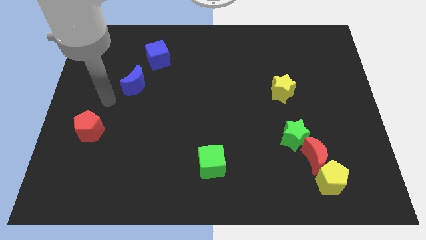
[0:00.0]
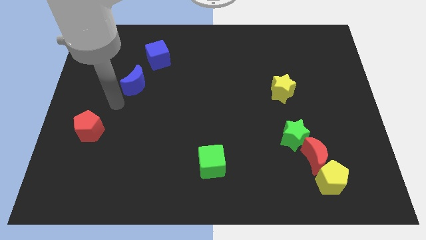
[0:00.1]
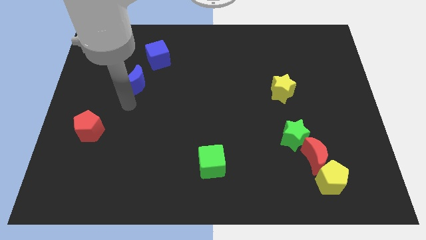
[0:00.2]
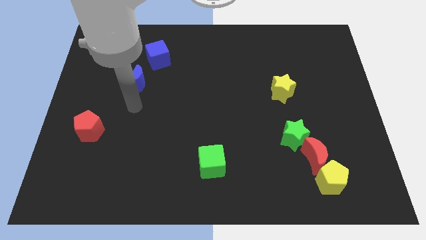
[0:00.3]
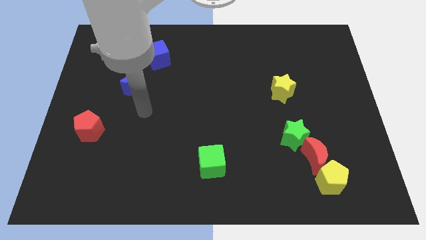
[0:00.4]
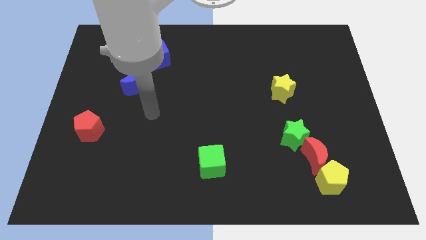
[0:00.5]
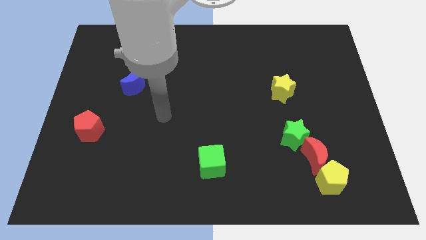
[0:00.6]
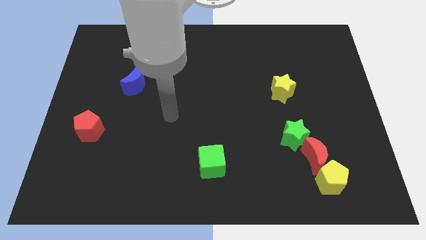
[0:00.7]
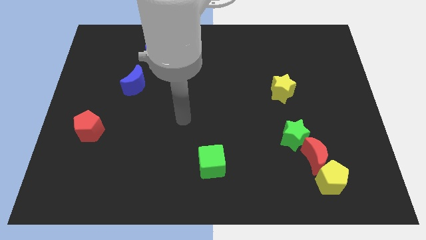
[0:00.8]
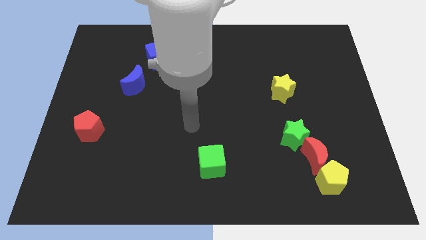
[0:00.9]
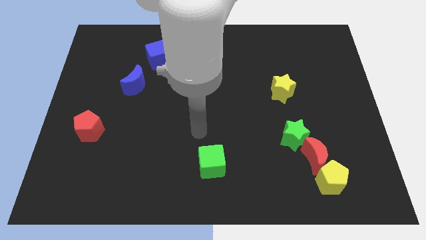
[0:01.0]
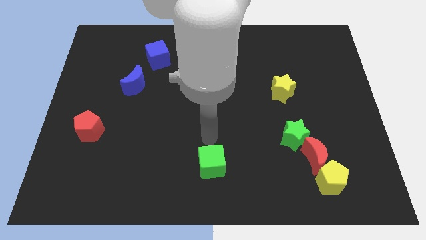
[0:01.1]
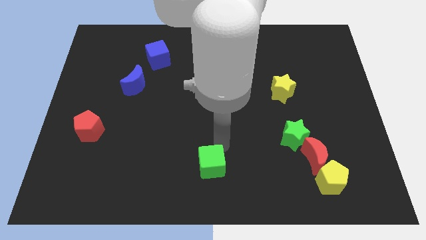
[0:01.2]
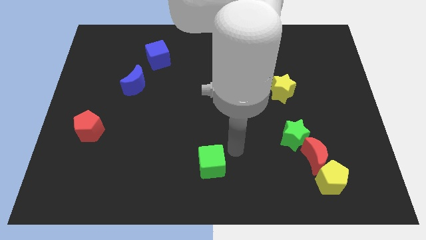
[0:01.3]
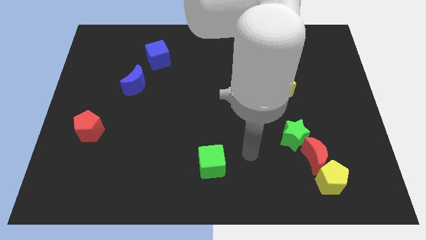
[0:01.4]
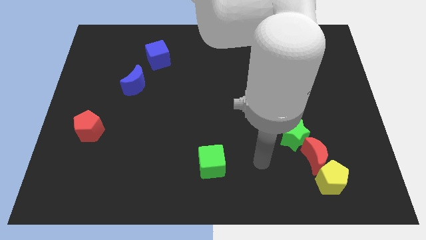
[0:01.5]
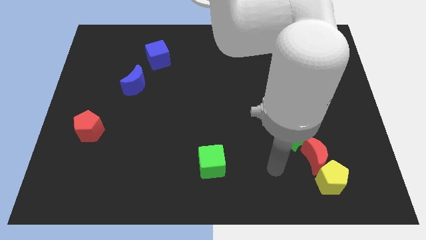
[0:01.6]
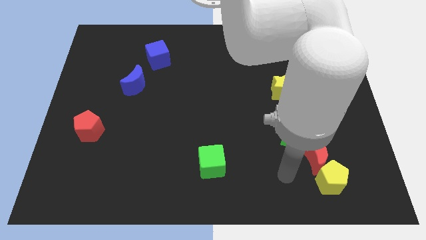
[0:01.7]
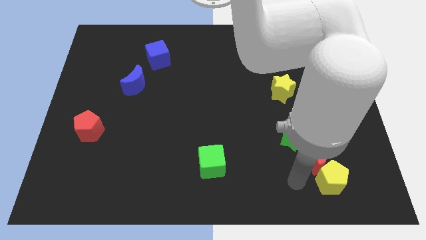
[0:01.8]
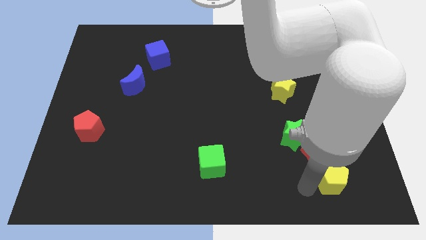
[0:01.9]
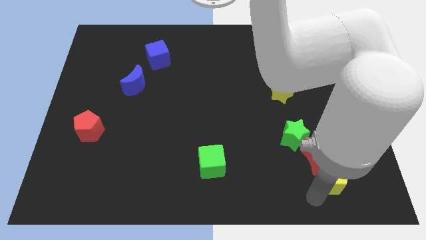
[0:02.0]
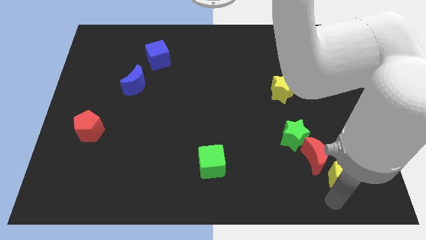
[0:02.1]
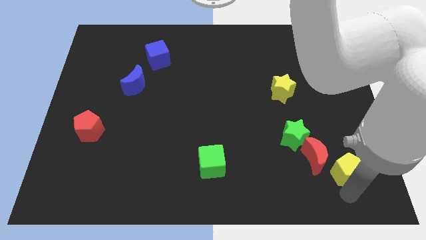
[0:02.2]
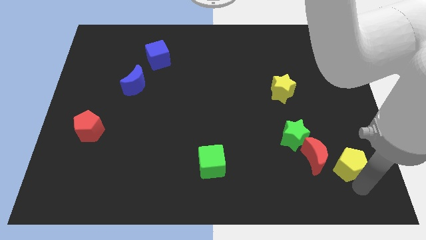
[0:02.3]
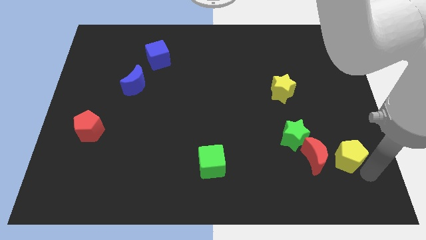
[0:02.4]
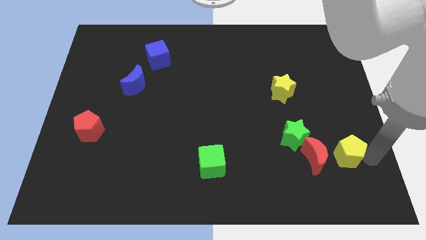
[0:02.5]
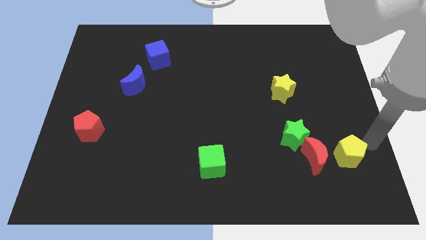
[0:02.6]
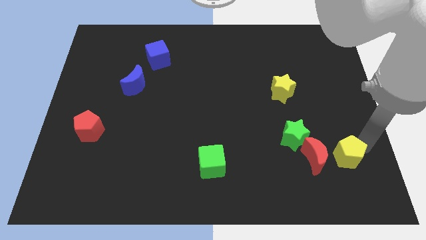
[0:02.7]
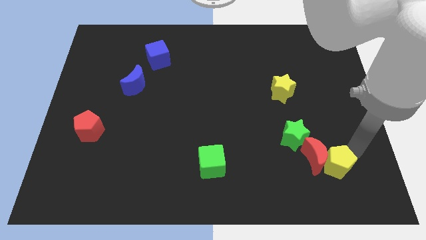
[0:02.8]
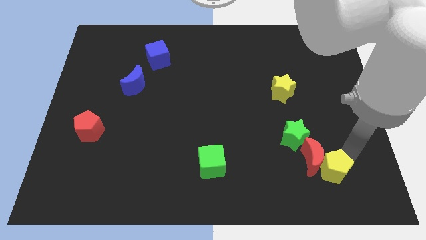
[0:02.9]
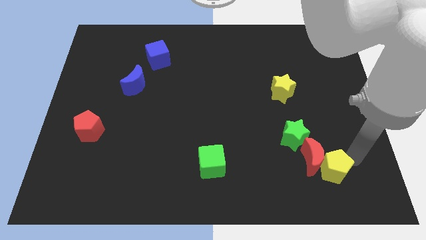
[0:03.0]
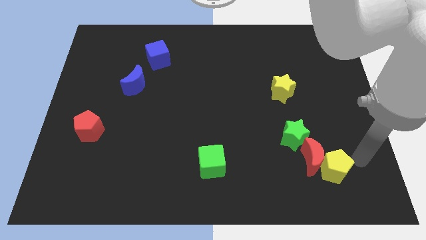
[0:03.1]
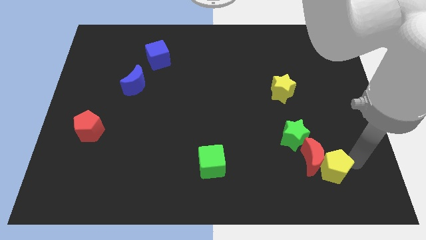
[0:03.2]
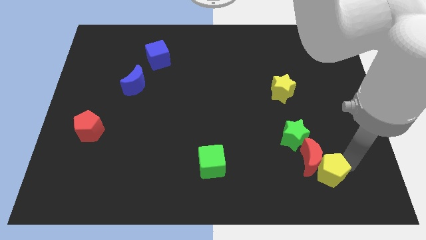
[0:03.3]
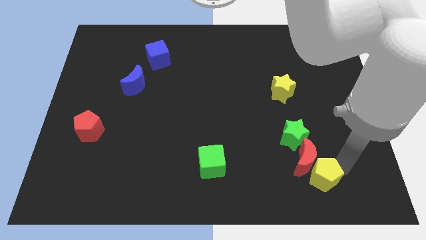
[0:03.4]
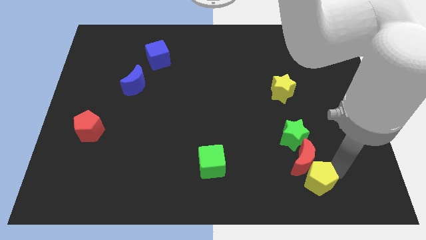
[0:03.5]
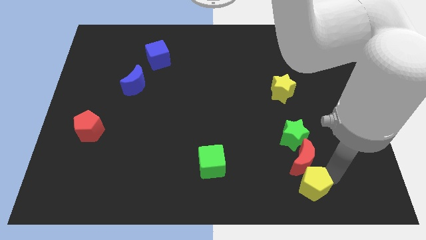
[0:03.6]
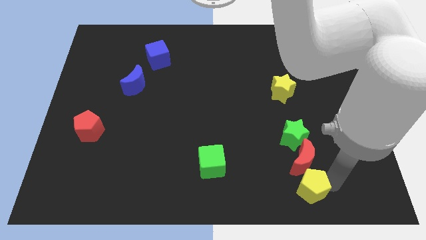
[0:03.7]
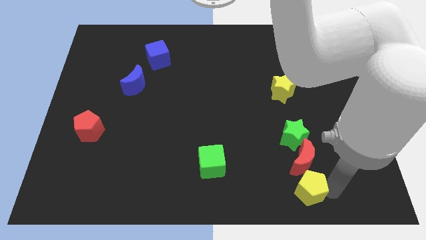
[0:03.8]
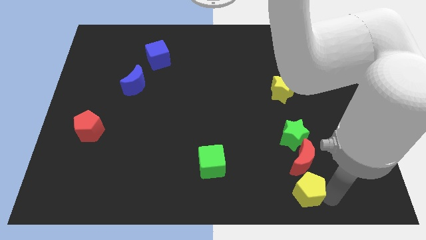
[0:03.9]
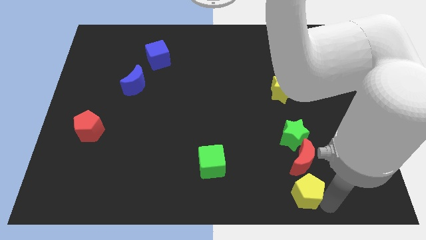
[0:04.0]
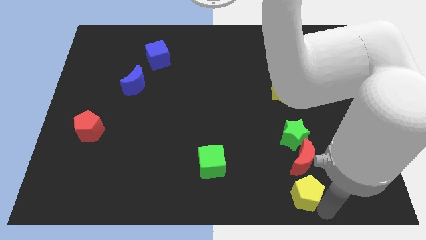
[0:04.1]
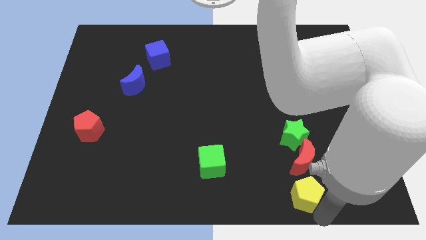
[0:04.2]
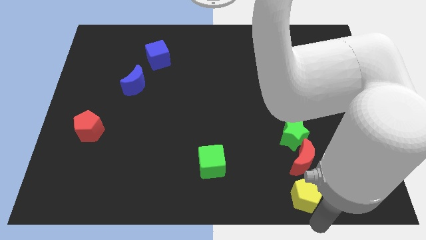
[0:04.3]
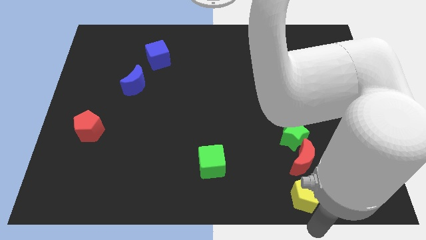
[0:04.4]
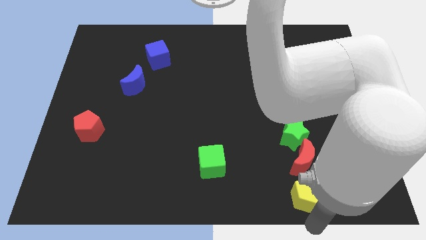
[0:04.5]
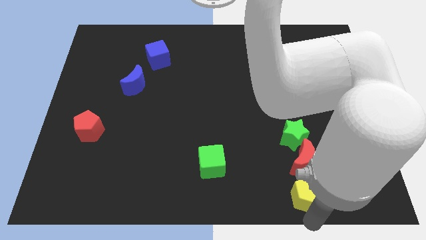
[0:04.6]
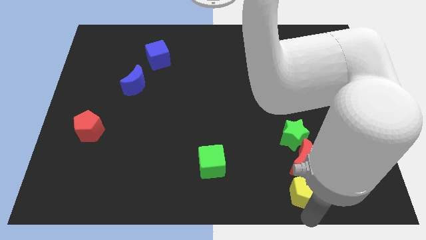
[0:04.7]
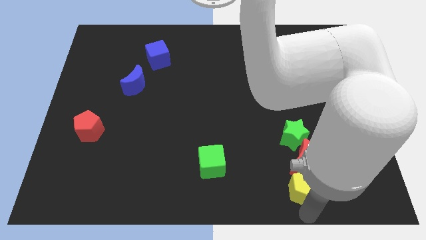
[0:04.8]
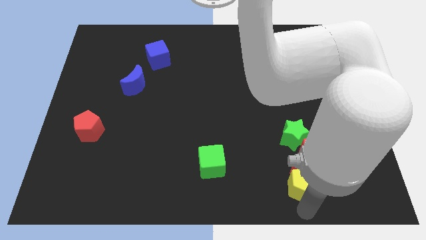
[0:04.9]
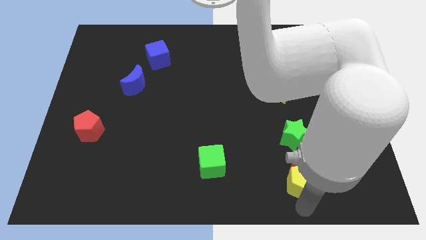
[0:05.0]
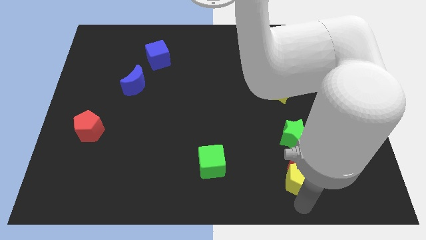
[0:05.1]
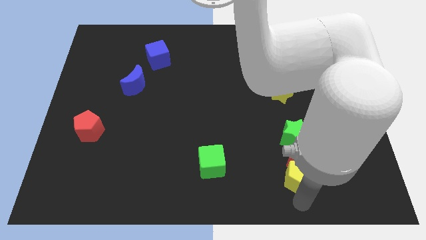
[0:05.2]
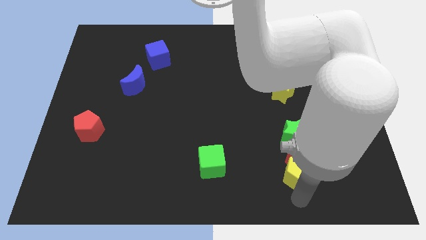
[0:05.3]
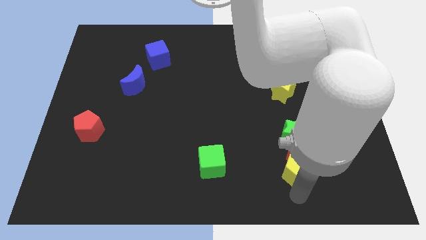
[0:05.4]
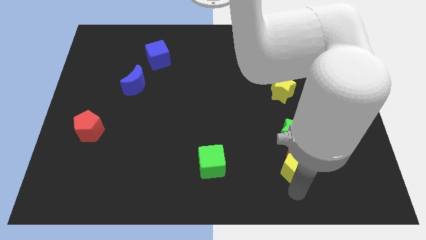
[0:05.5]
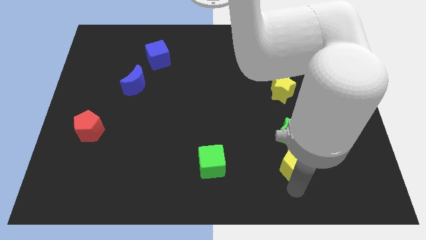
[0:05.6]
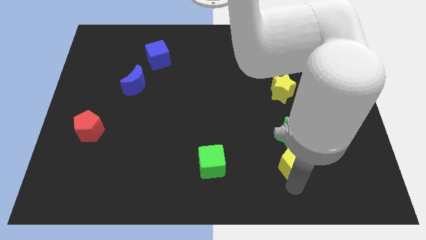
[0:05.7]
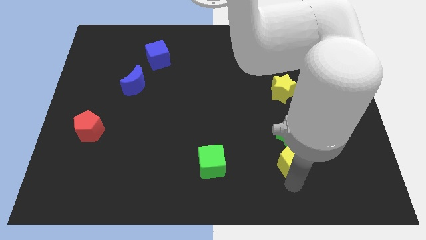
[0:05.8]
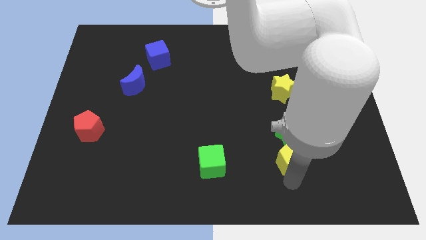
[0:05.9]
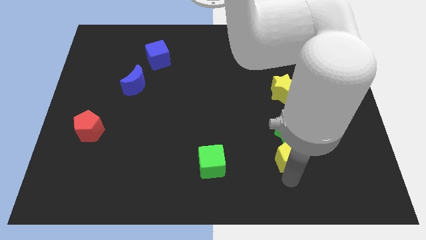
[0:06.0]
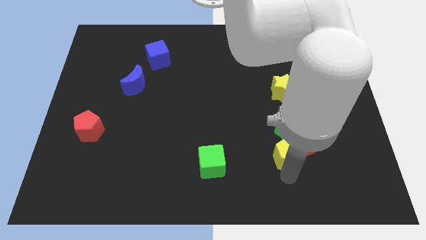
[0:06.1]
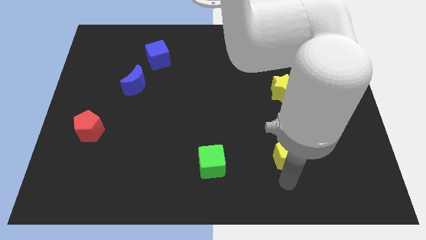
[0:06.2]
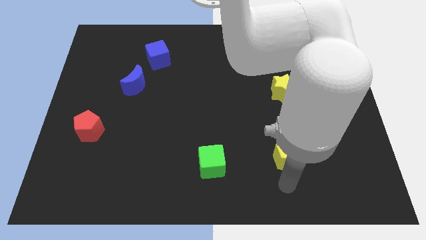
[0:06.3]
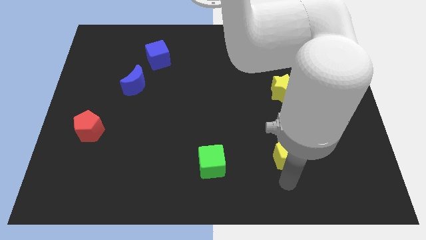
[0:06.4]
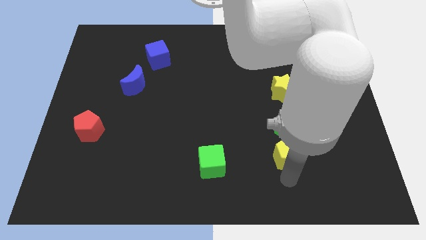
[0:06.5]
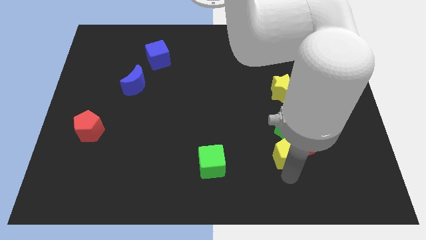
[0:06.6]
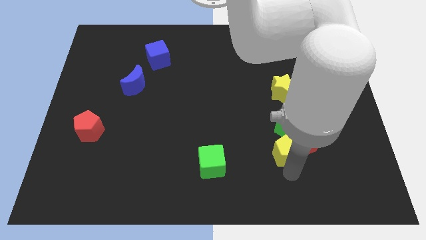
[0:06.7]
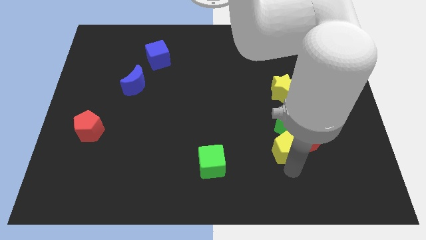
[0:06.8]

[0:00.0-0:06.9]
put the yellow pentagon close to the green star
